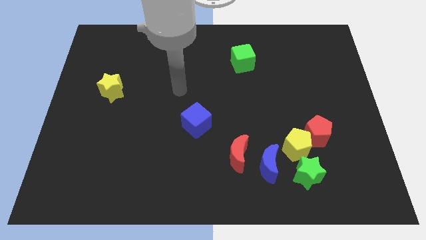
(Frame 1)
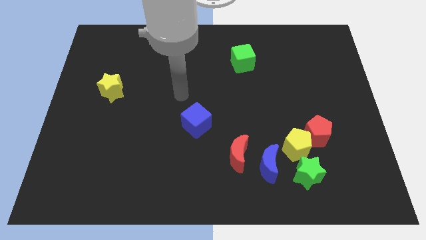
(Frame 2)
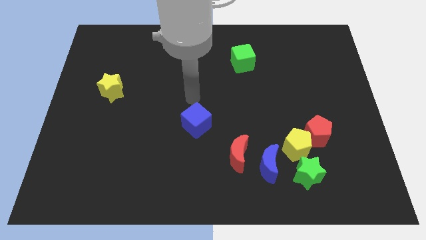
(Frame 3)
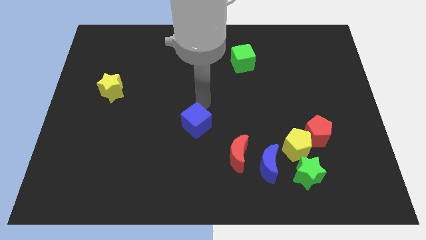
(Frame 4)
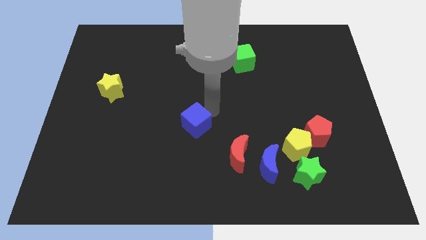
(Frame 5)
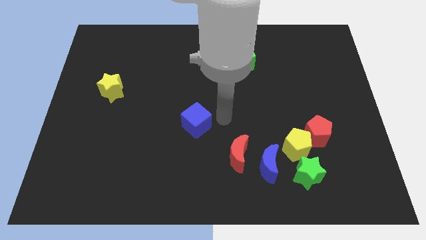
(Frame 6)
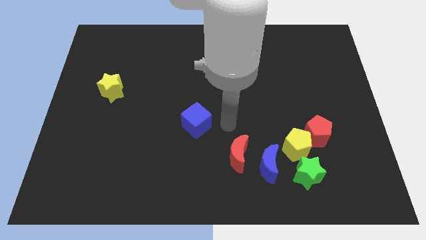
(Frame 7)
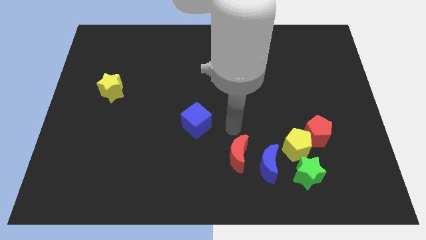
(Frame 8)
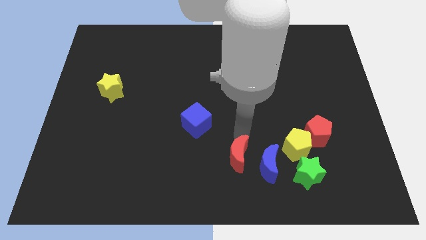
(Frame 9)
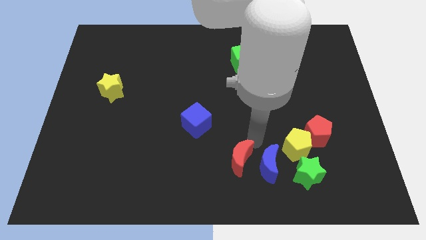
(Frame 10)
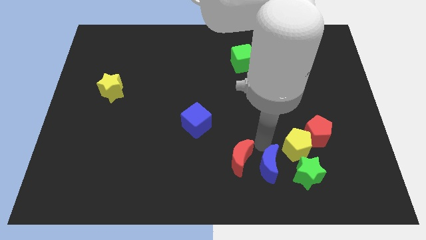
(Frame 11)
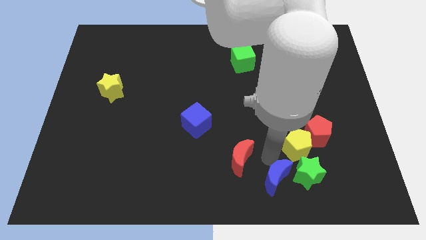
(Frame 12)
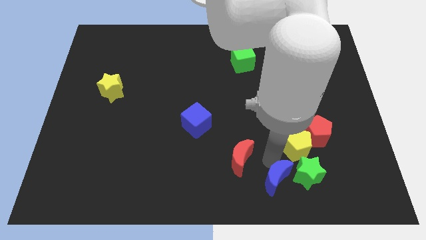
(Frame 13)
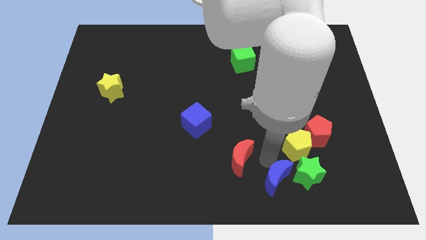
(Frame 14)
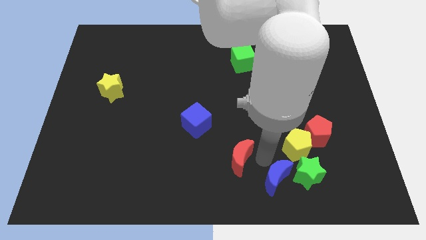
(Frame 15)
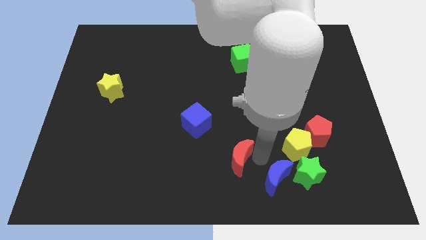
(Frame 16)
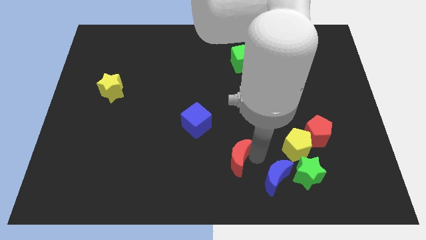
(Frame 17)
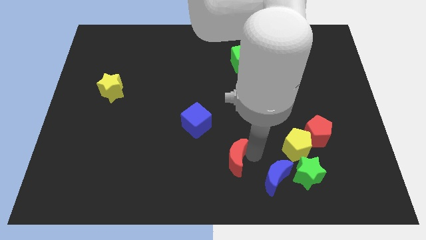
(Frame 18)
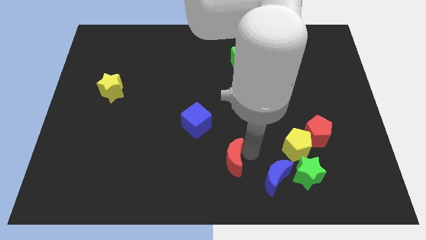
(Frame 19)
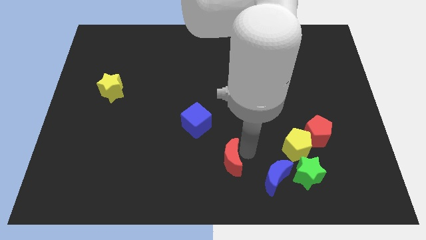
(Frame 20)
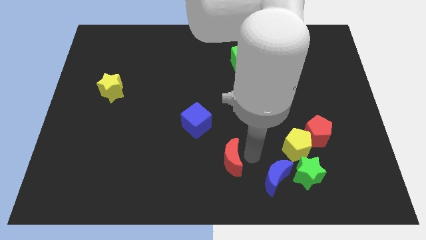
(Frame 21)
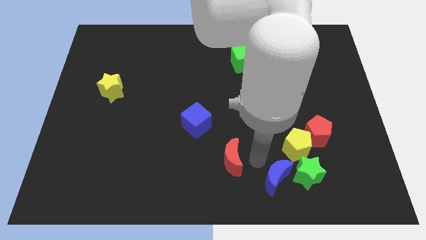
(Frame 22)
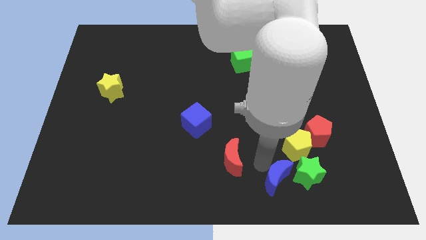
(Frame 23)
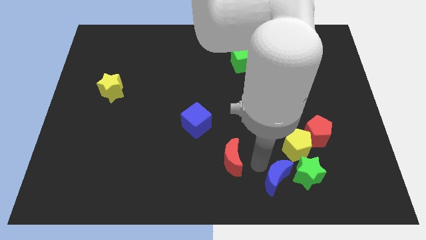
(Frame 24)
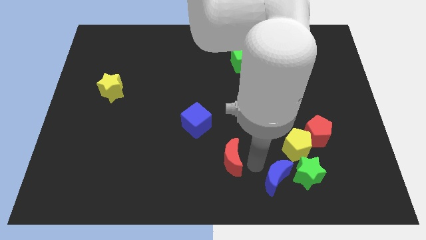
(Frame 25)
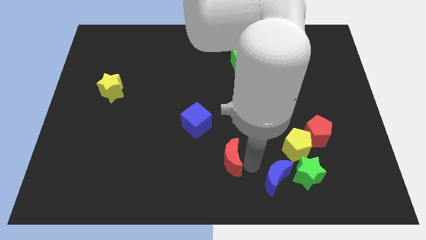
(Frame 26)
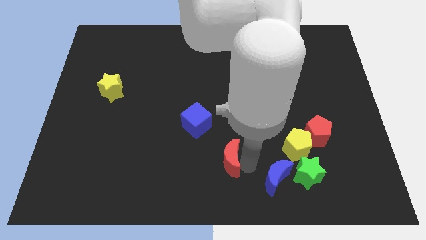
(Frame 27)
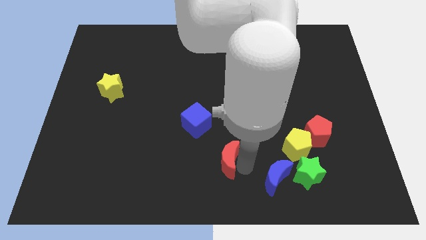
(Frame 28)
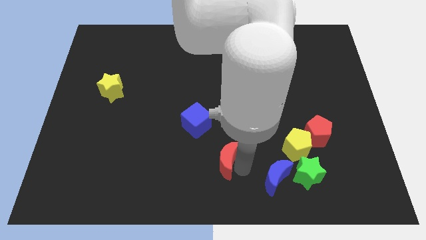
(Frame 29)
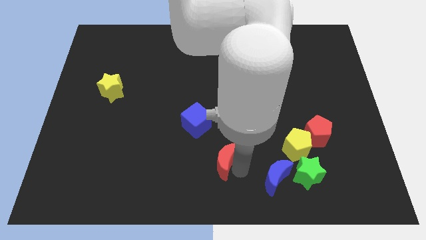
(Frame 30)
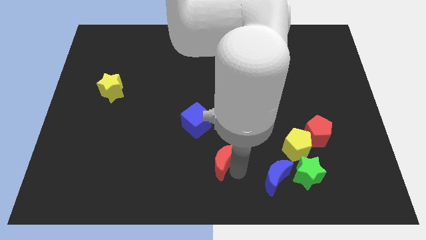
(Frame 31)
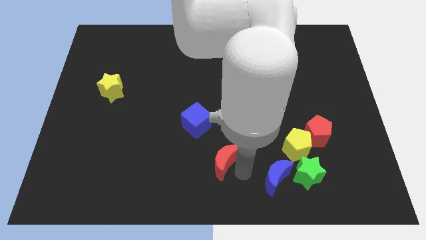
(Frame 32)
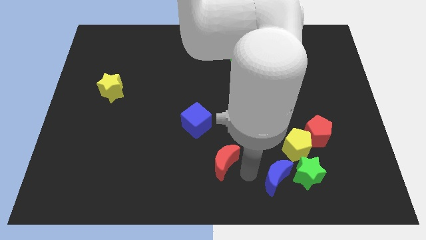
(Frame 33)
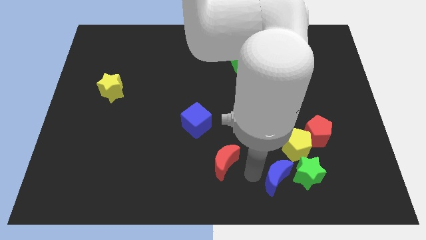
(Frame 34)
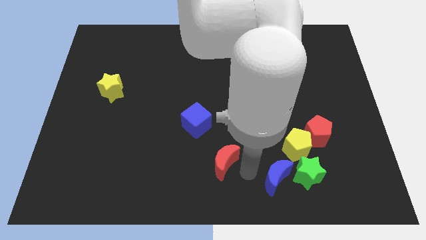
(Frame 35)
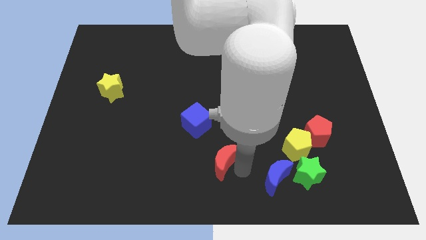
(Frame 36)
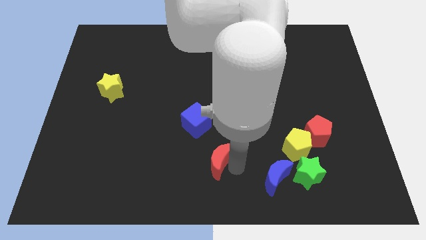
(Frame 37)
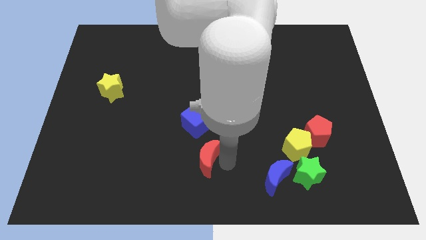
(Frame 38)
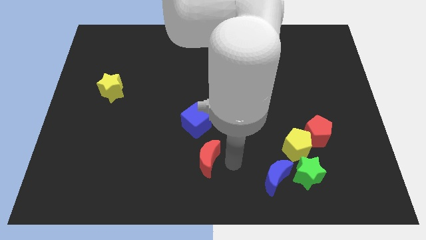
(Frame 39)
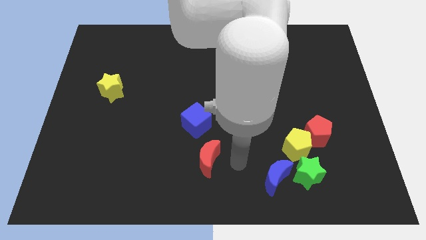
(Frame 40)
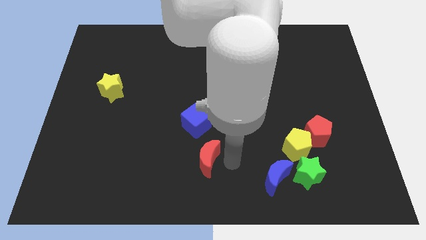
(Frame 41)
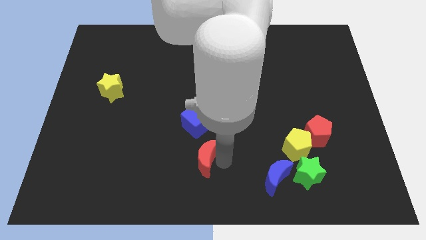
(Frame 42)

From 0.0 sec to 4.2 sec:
move the red moon a little bit to the left

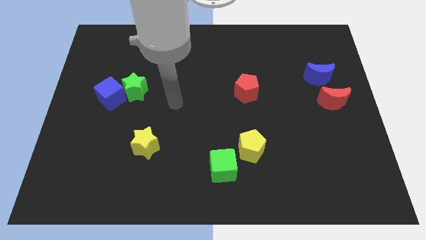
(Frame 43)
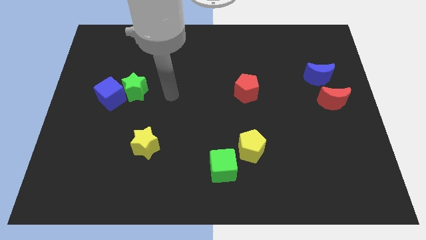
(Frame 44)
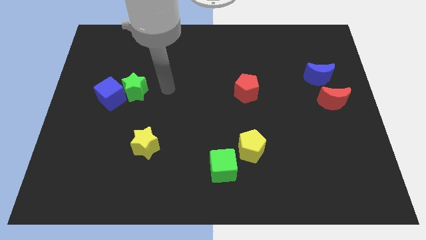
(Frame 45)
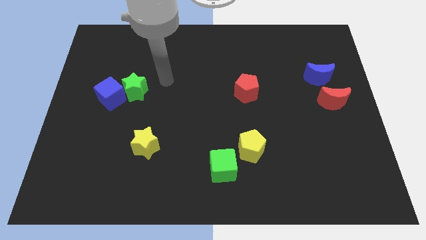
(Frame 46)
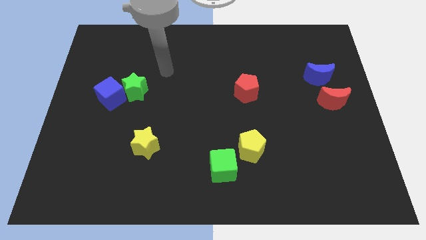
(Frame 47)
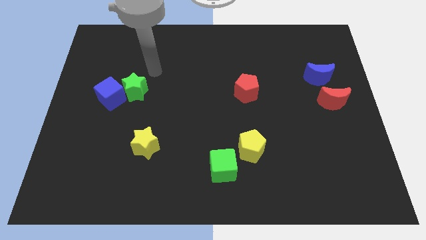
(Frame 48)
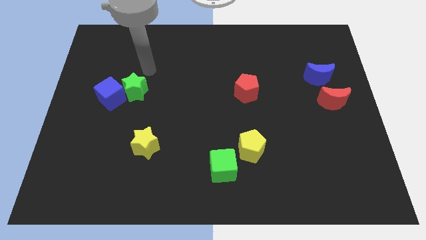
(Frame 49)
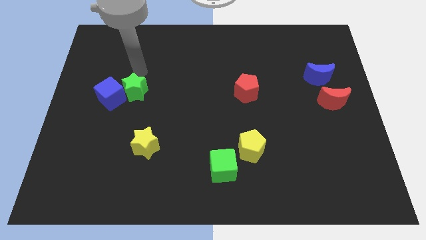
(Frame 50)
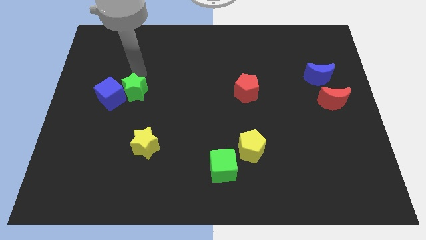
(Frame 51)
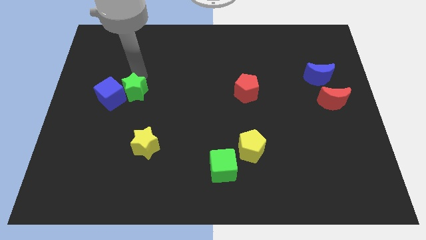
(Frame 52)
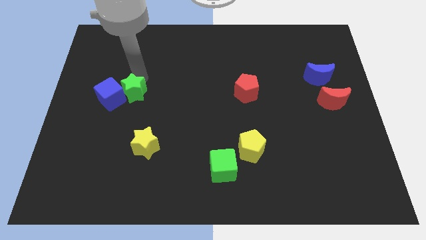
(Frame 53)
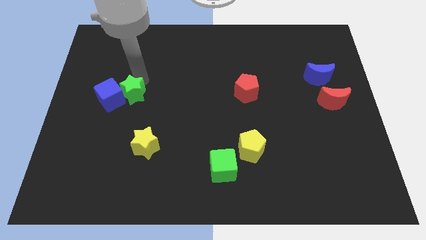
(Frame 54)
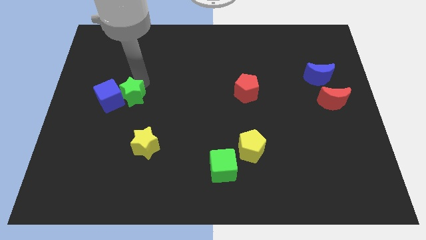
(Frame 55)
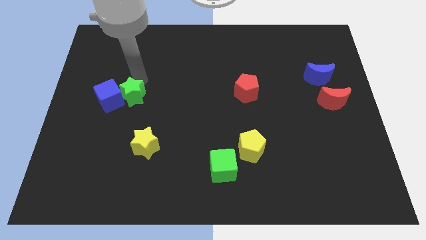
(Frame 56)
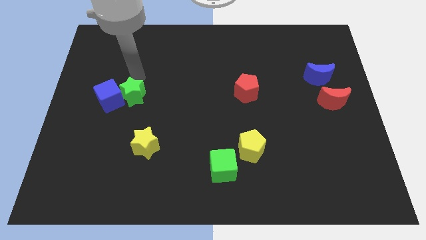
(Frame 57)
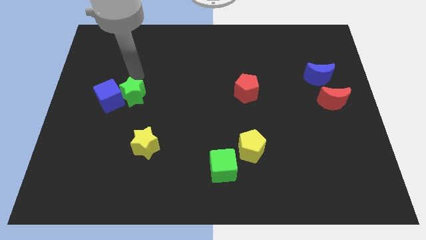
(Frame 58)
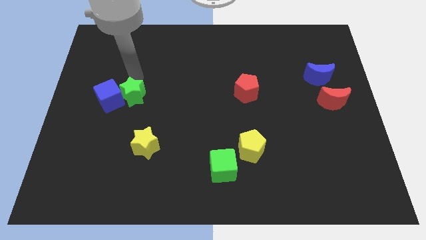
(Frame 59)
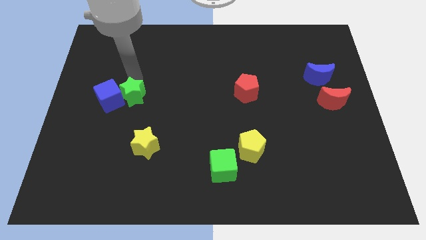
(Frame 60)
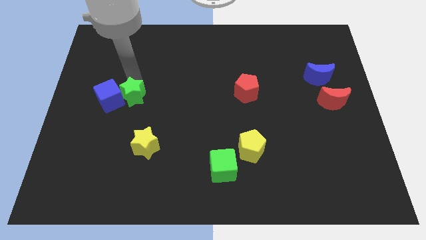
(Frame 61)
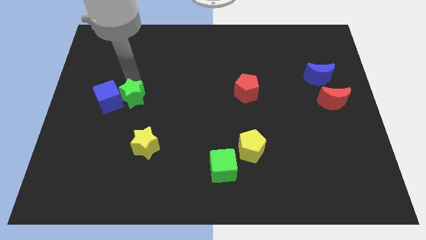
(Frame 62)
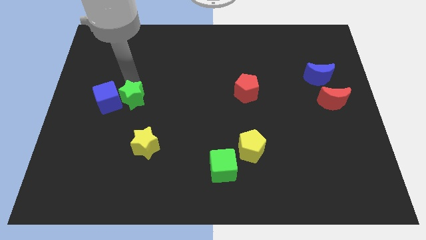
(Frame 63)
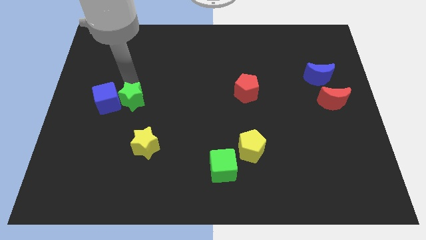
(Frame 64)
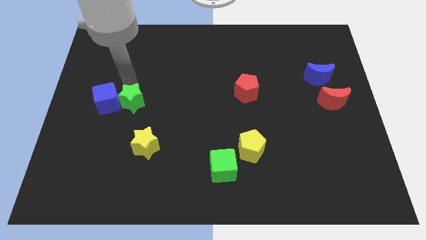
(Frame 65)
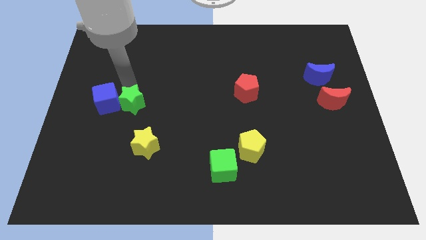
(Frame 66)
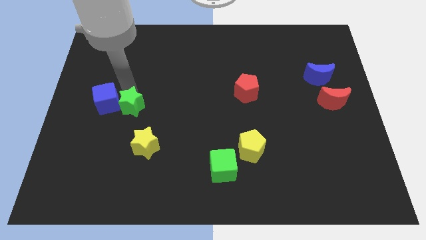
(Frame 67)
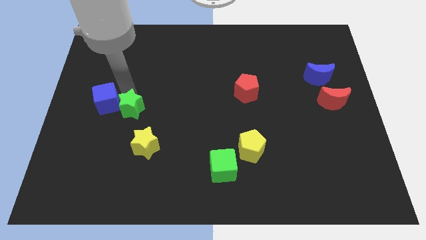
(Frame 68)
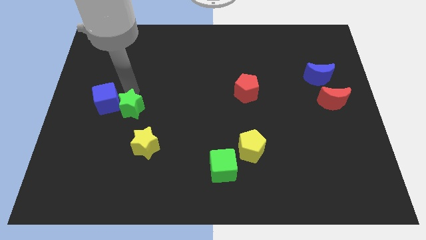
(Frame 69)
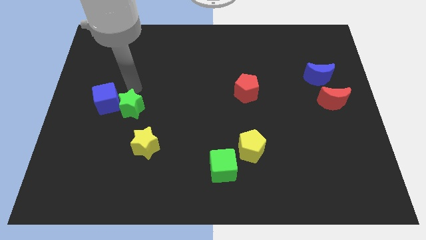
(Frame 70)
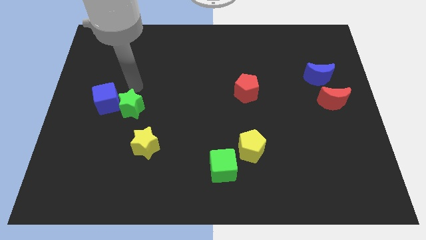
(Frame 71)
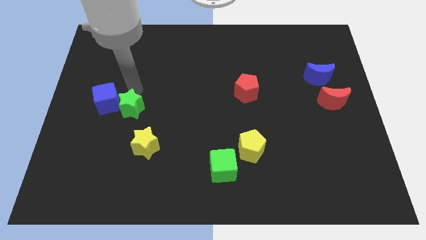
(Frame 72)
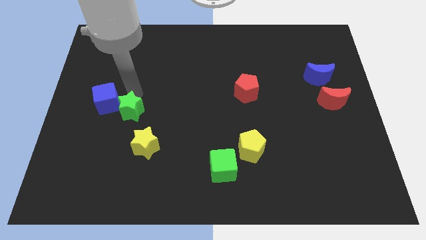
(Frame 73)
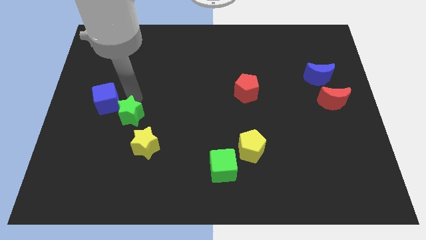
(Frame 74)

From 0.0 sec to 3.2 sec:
push the green star a bit downwards

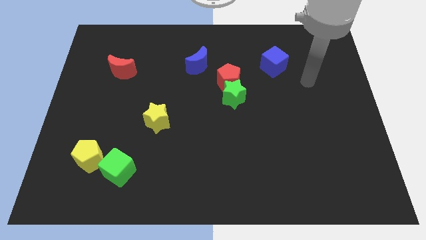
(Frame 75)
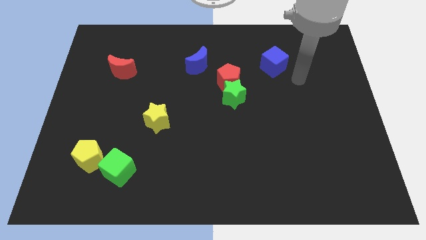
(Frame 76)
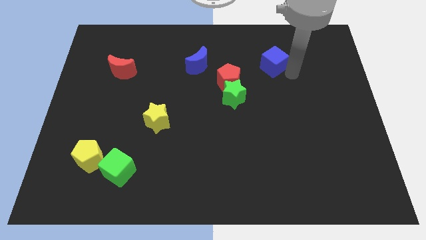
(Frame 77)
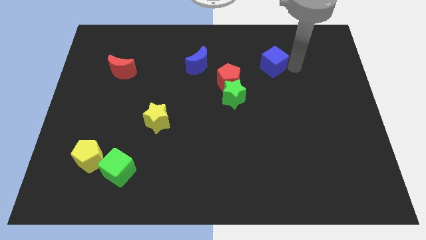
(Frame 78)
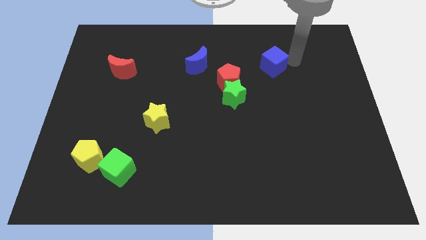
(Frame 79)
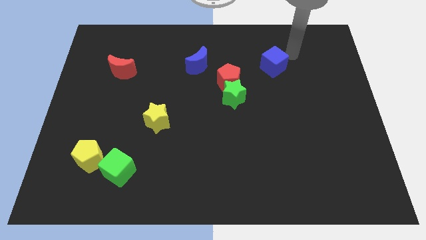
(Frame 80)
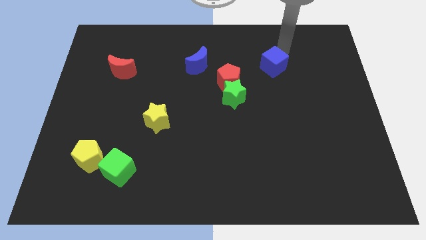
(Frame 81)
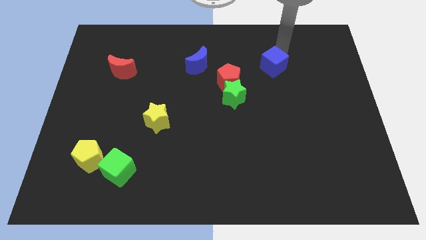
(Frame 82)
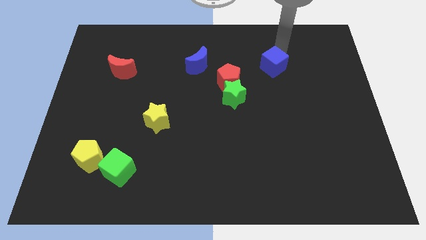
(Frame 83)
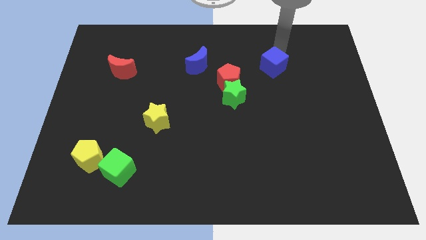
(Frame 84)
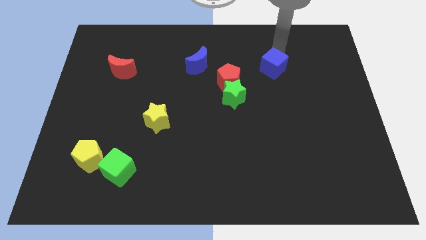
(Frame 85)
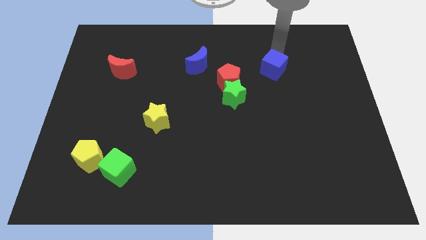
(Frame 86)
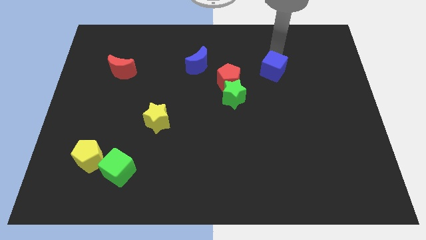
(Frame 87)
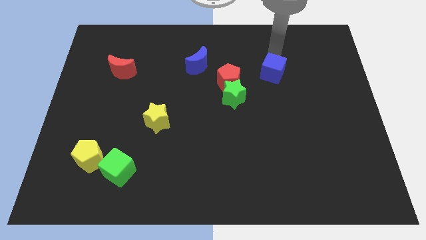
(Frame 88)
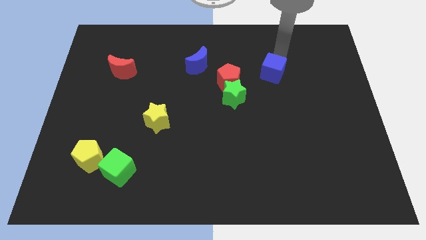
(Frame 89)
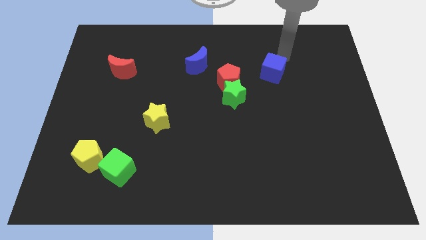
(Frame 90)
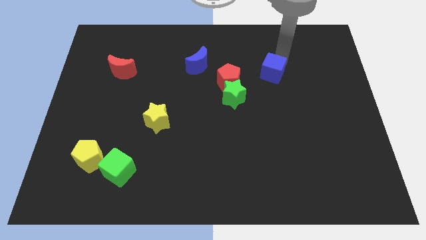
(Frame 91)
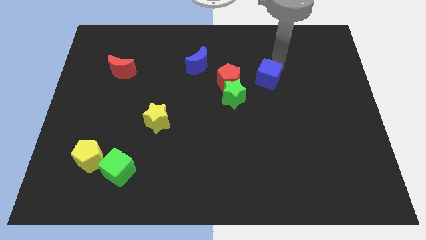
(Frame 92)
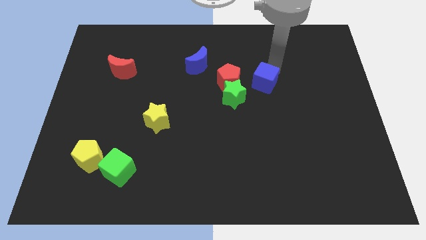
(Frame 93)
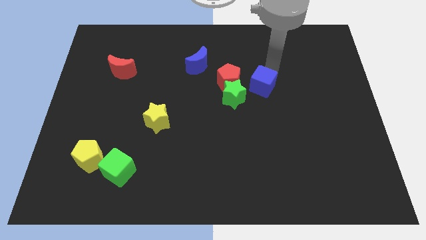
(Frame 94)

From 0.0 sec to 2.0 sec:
push the blue cube slightly diagonally down and left
